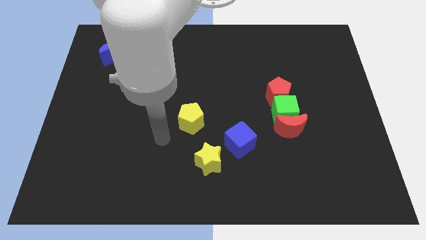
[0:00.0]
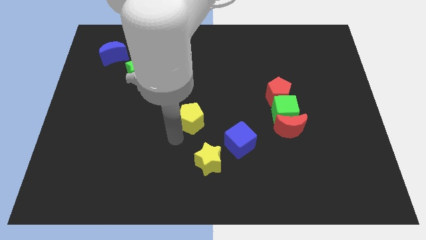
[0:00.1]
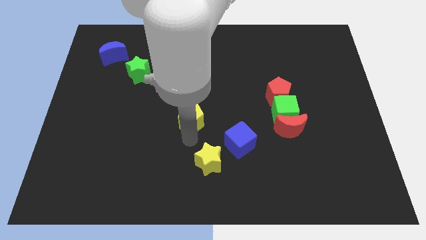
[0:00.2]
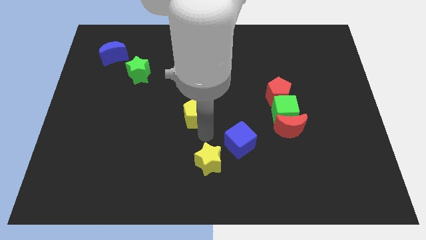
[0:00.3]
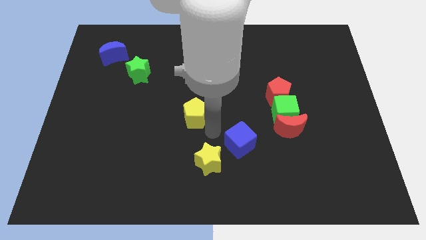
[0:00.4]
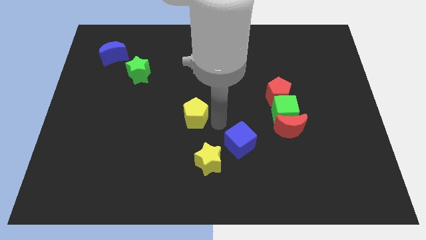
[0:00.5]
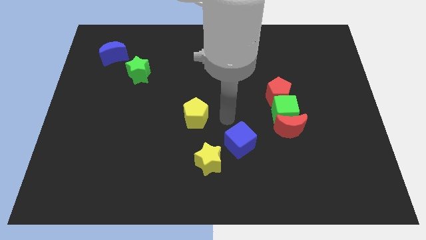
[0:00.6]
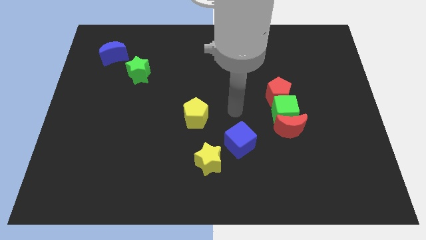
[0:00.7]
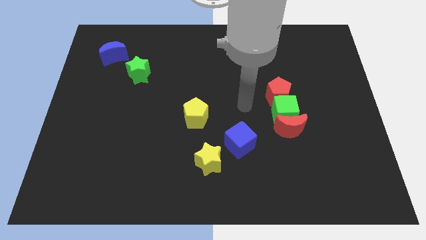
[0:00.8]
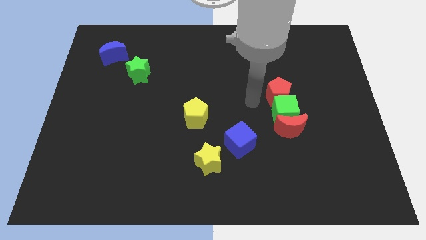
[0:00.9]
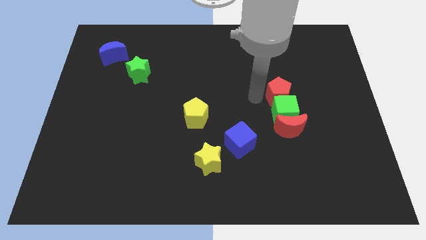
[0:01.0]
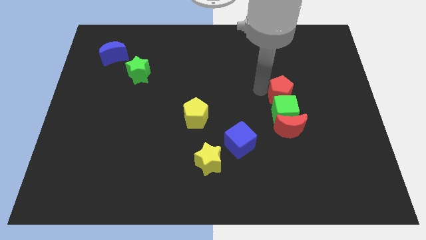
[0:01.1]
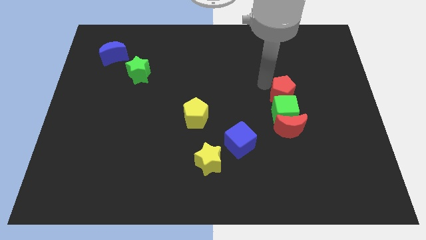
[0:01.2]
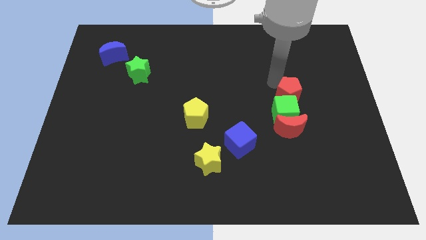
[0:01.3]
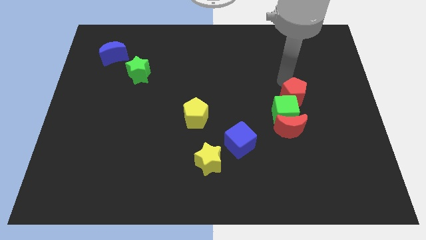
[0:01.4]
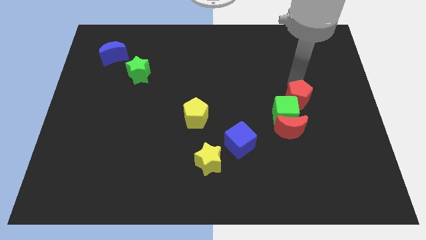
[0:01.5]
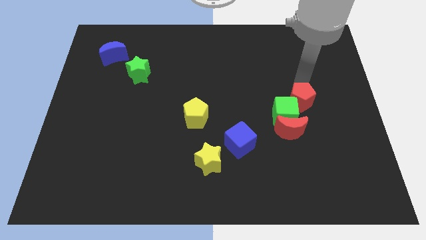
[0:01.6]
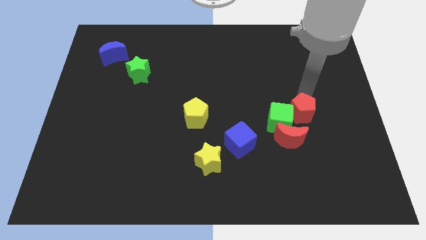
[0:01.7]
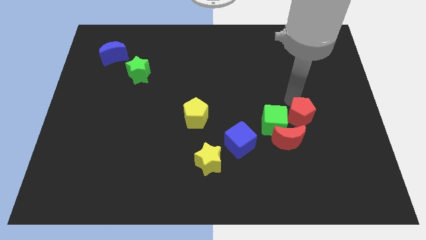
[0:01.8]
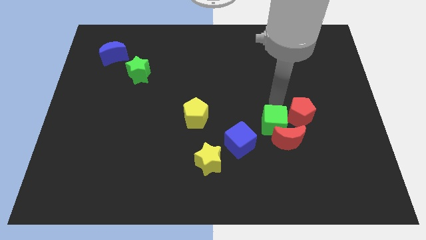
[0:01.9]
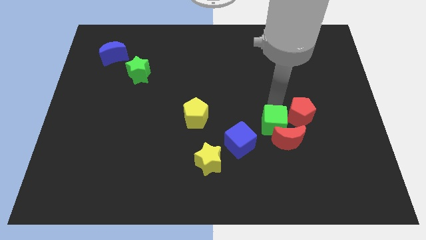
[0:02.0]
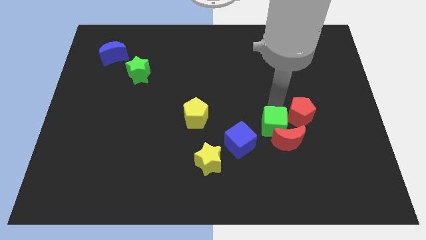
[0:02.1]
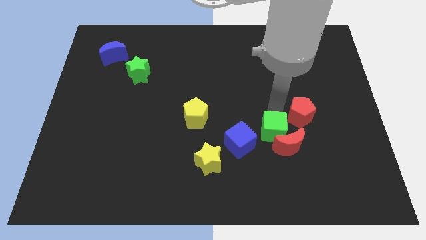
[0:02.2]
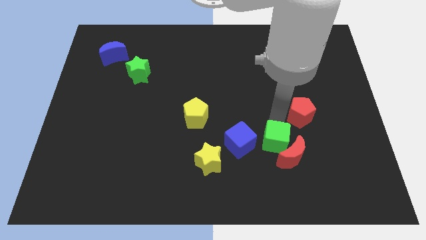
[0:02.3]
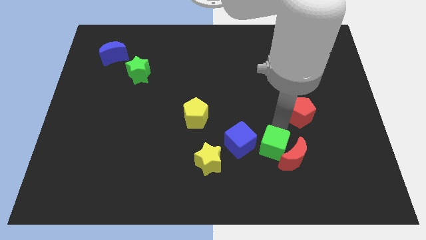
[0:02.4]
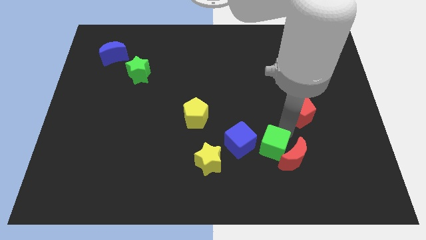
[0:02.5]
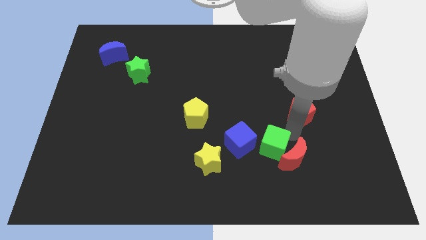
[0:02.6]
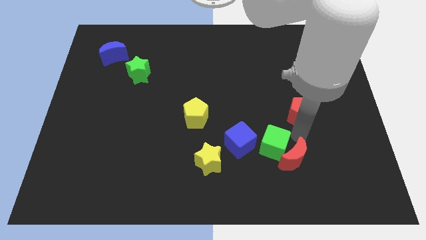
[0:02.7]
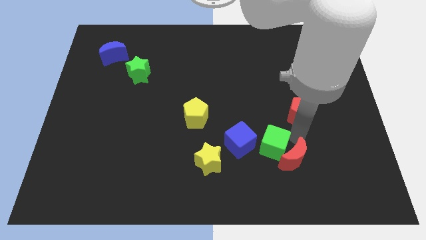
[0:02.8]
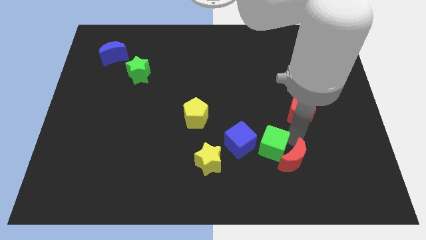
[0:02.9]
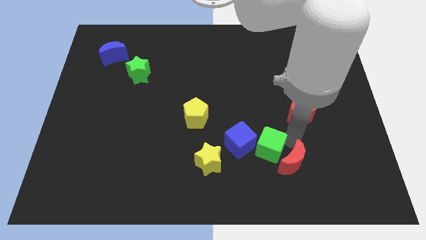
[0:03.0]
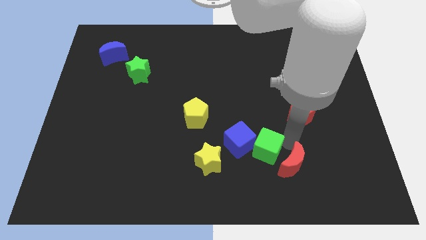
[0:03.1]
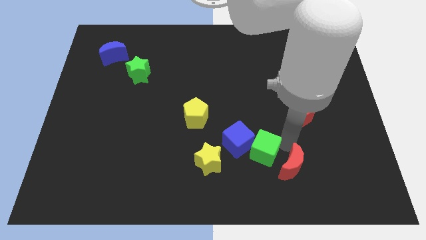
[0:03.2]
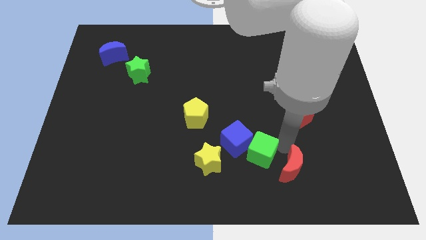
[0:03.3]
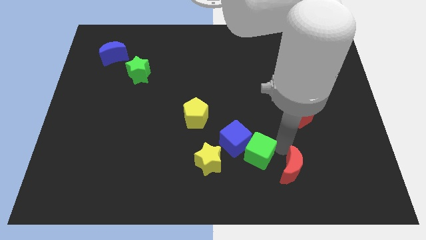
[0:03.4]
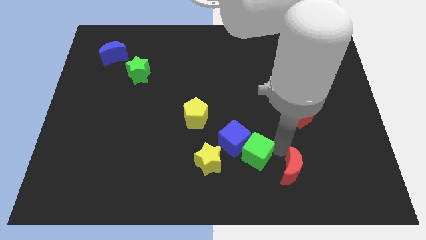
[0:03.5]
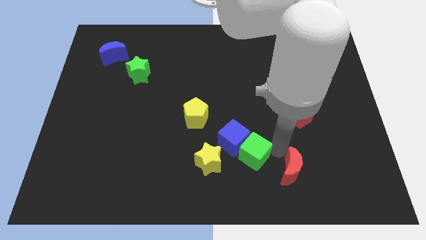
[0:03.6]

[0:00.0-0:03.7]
separate the green cube from the red moon and red pentagon

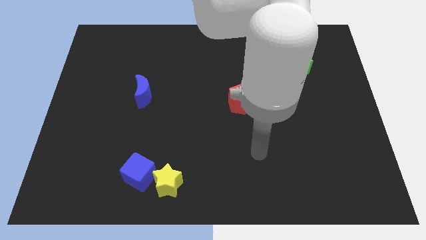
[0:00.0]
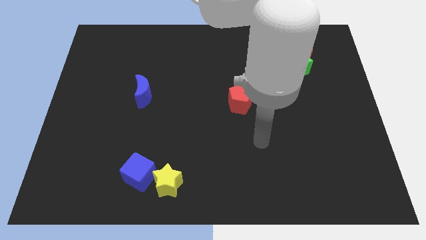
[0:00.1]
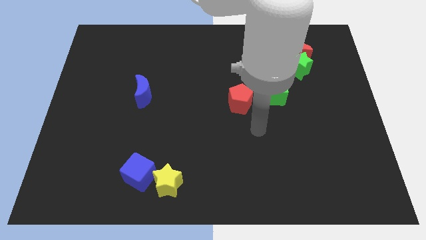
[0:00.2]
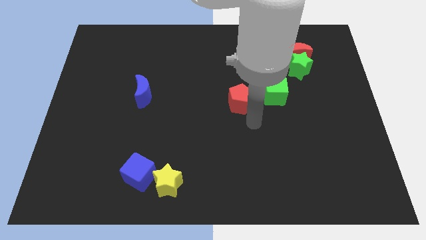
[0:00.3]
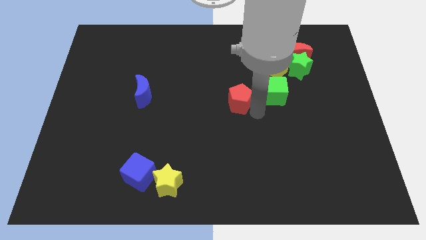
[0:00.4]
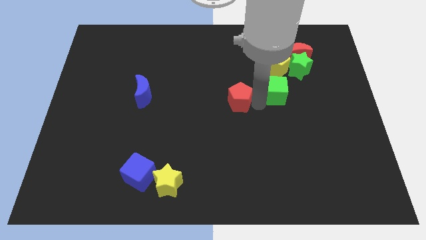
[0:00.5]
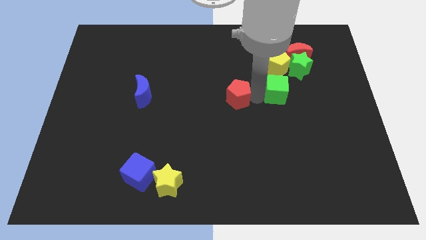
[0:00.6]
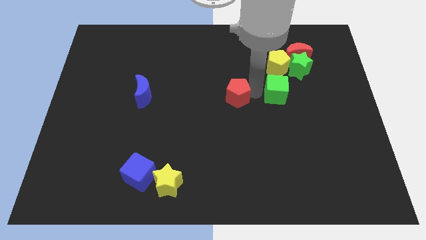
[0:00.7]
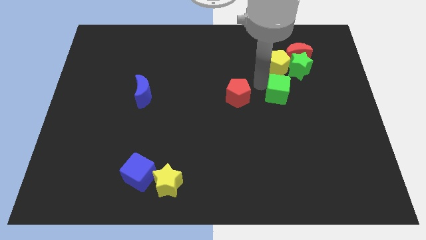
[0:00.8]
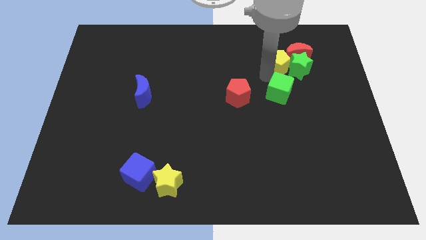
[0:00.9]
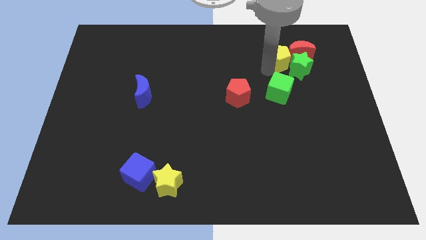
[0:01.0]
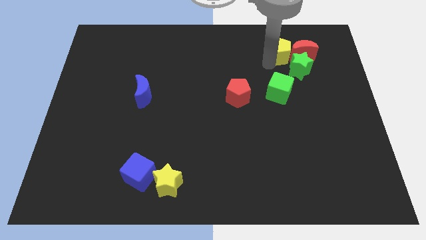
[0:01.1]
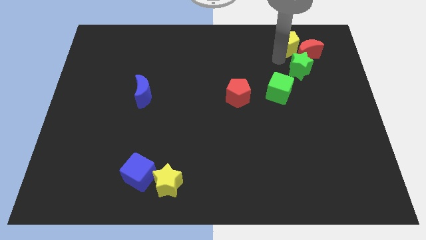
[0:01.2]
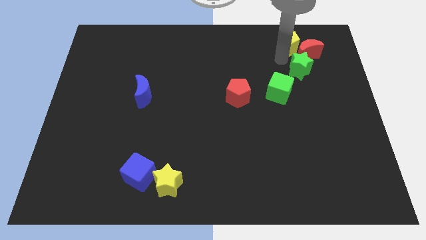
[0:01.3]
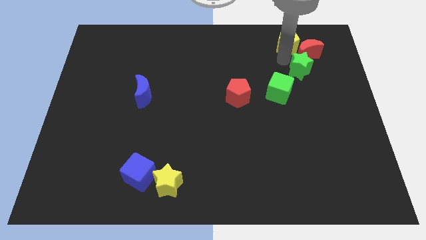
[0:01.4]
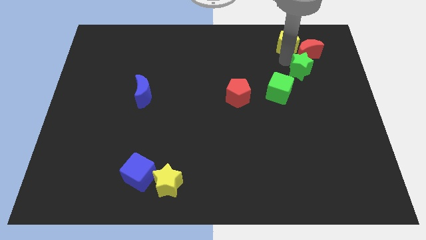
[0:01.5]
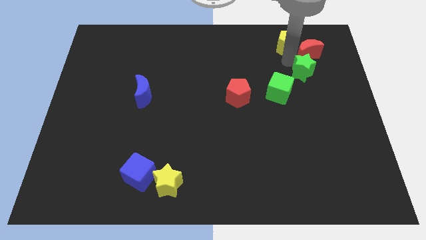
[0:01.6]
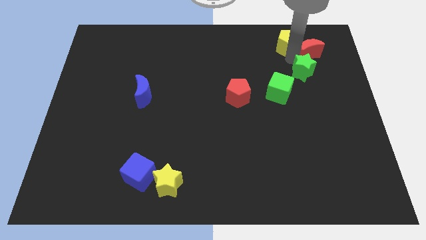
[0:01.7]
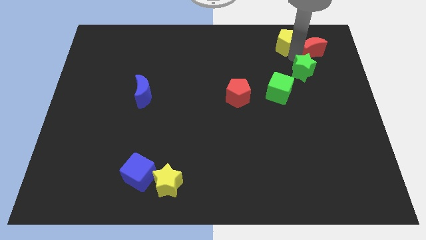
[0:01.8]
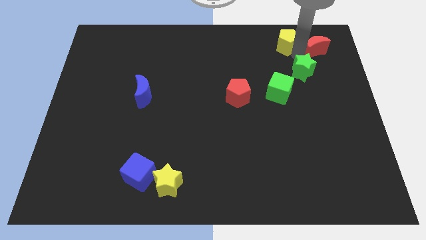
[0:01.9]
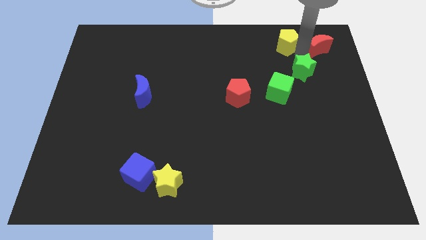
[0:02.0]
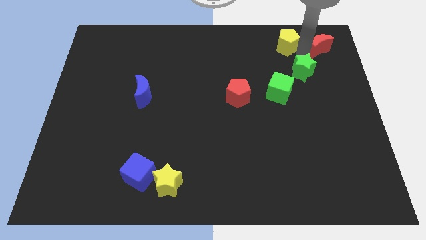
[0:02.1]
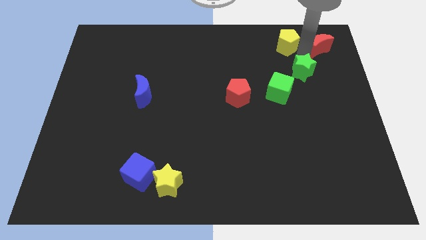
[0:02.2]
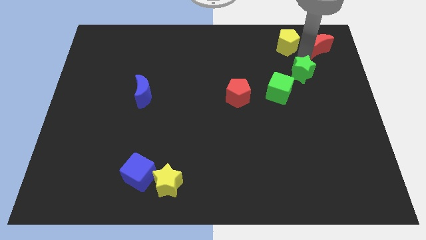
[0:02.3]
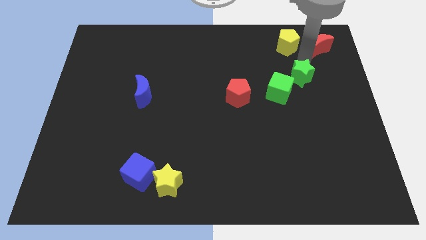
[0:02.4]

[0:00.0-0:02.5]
move the green star away from the red moon and yellow pentagon

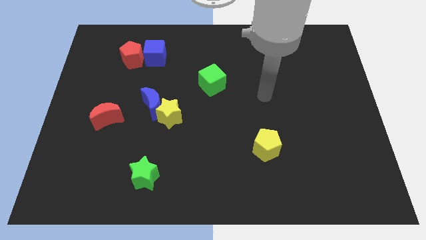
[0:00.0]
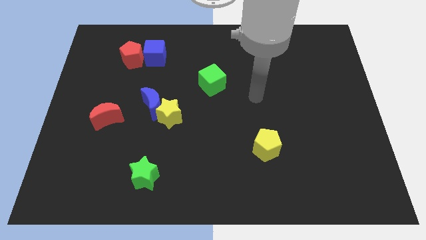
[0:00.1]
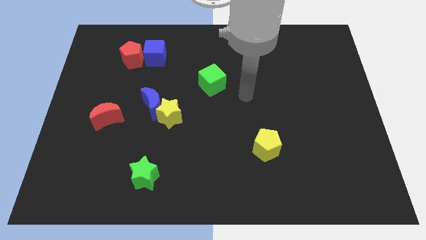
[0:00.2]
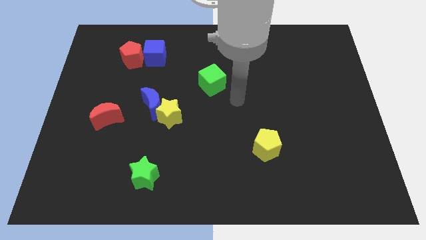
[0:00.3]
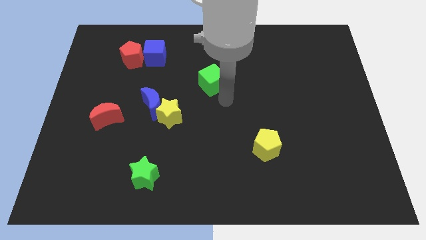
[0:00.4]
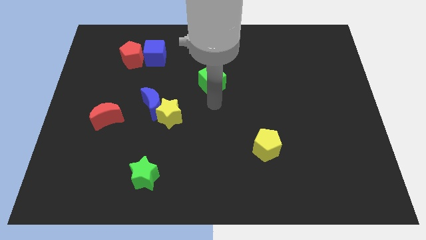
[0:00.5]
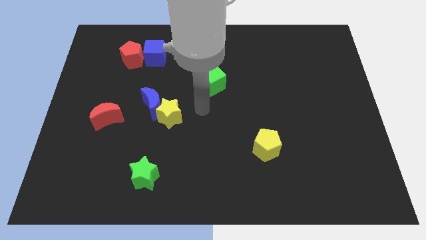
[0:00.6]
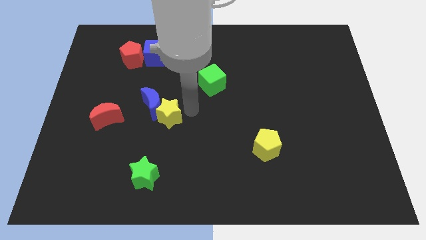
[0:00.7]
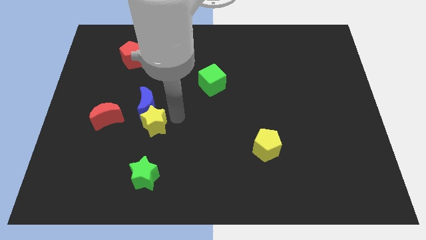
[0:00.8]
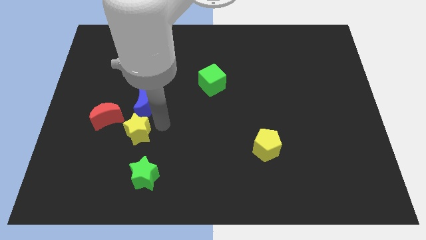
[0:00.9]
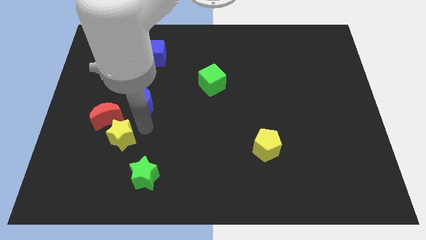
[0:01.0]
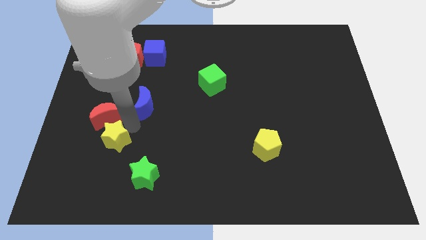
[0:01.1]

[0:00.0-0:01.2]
pull the blue moon apart from the yellow star

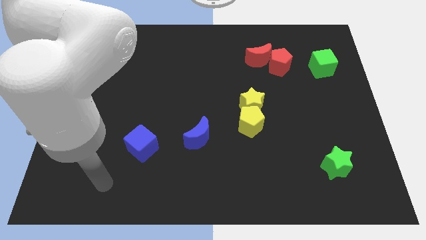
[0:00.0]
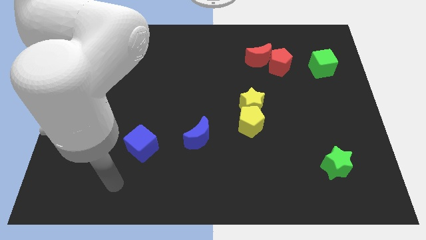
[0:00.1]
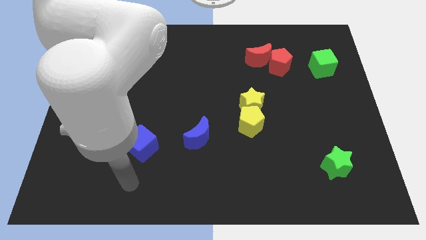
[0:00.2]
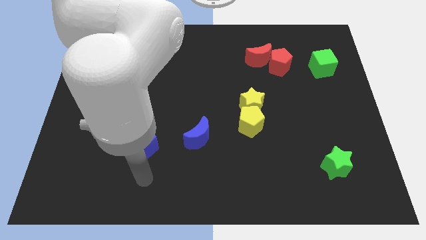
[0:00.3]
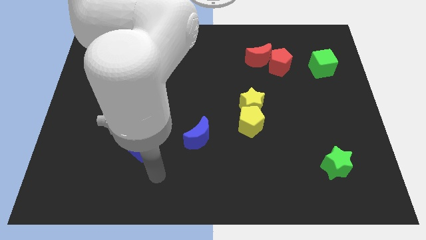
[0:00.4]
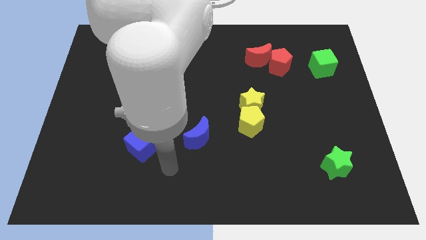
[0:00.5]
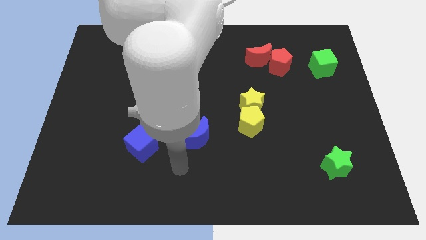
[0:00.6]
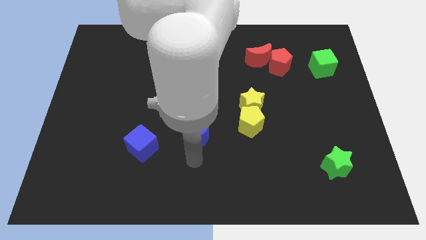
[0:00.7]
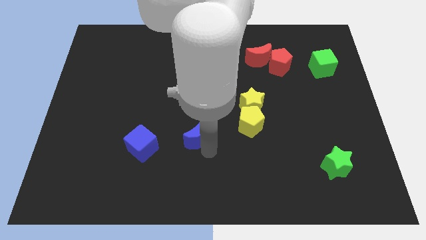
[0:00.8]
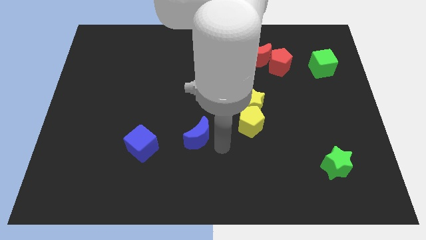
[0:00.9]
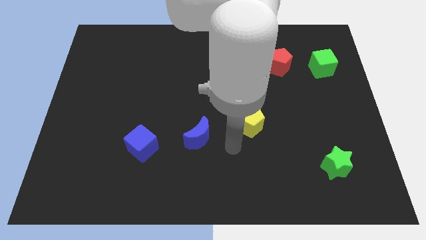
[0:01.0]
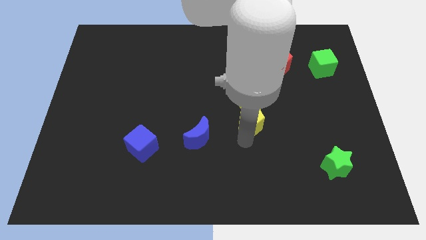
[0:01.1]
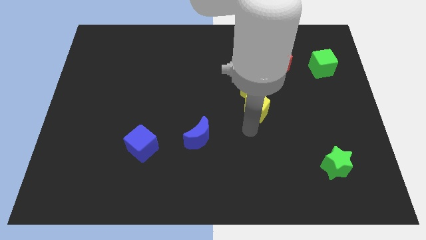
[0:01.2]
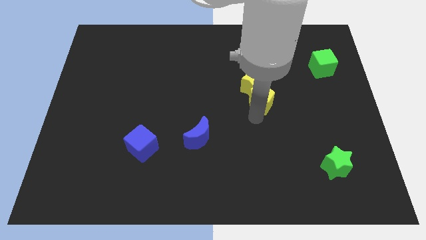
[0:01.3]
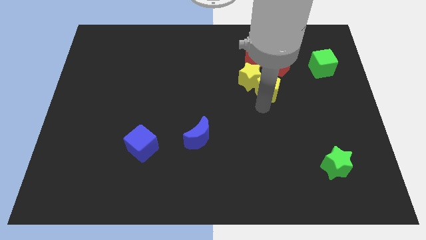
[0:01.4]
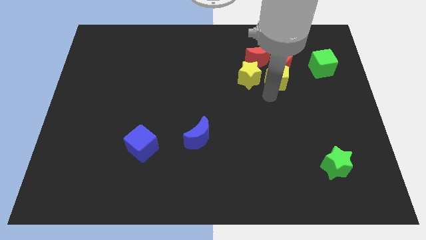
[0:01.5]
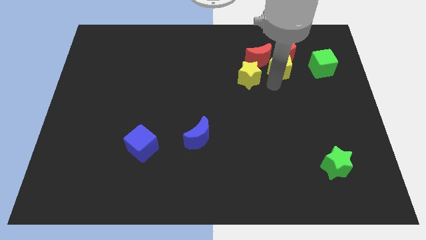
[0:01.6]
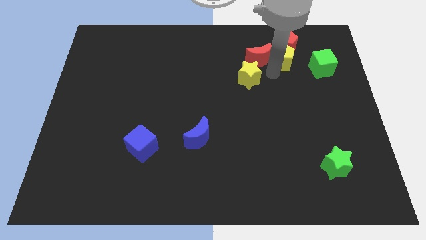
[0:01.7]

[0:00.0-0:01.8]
move the yellow star away from the yellow pentagon
